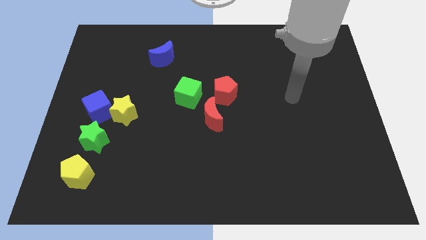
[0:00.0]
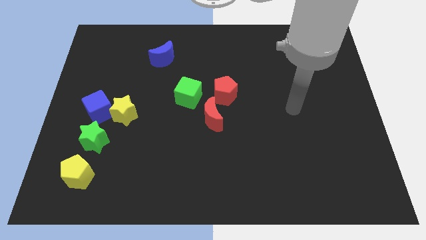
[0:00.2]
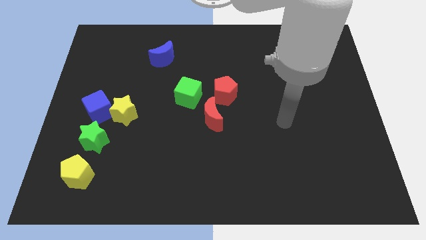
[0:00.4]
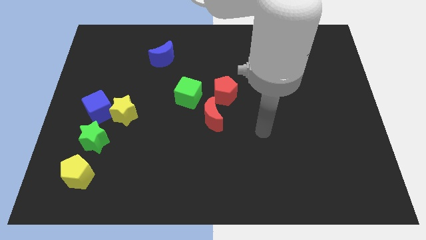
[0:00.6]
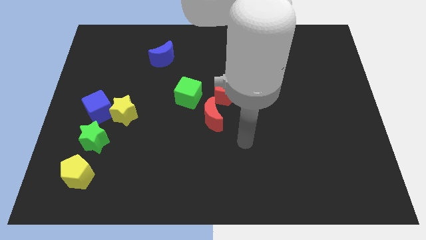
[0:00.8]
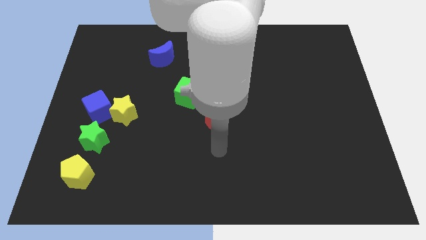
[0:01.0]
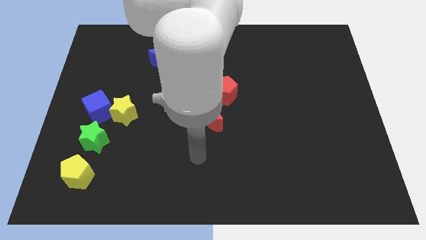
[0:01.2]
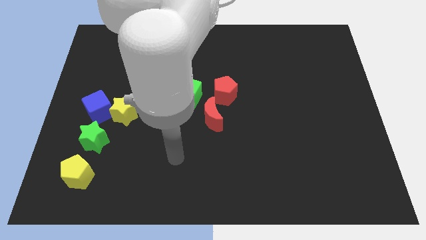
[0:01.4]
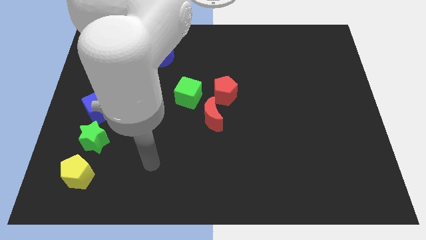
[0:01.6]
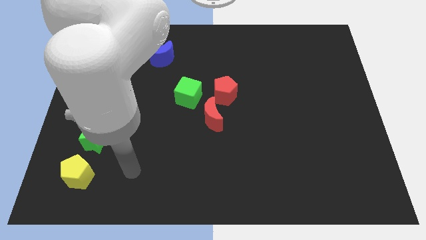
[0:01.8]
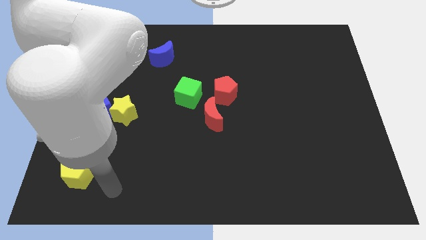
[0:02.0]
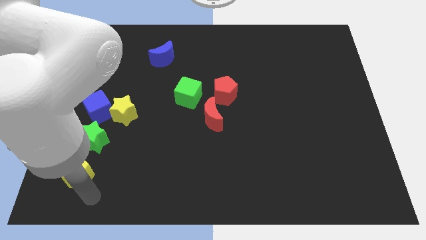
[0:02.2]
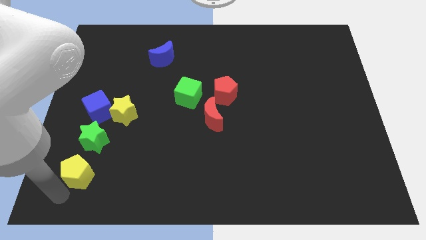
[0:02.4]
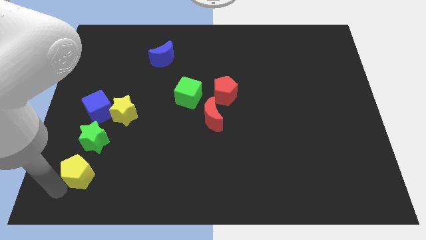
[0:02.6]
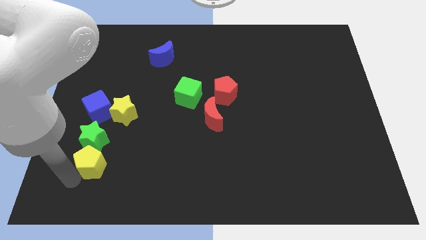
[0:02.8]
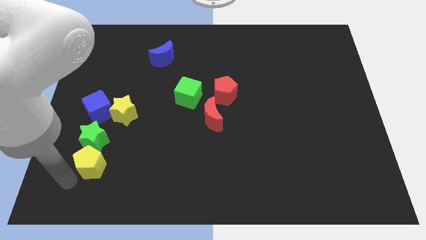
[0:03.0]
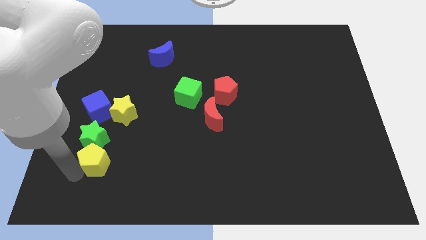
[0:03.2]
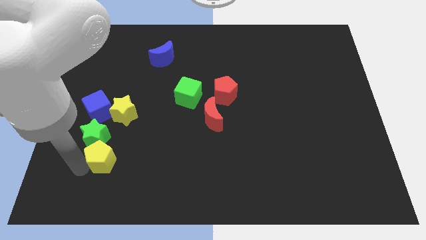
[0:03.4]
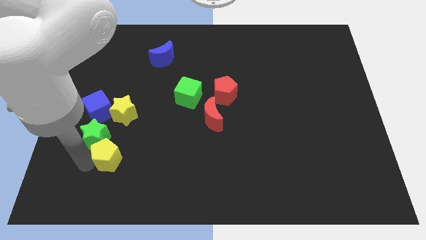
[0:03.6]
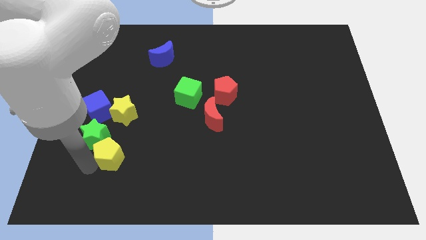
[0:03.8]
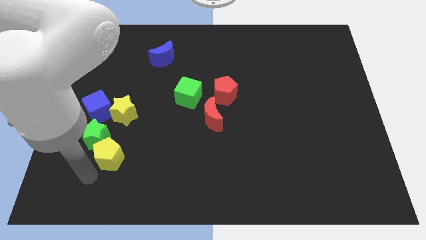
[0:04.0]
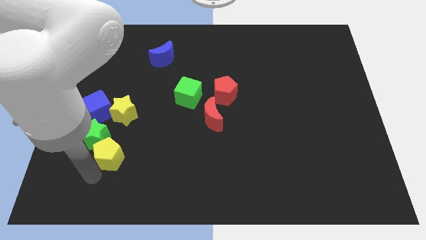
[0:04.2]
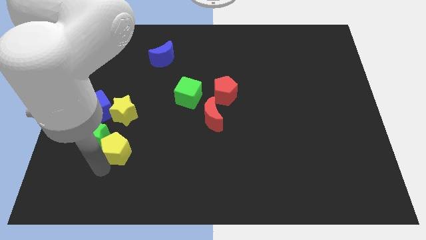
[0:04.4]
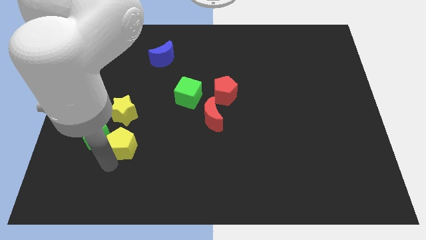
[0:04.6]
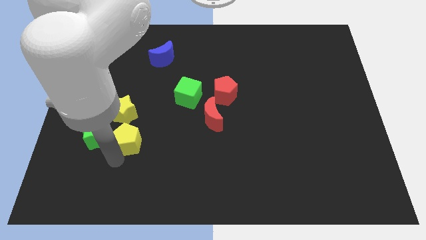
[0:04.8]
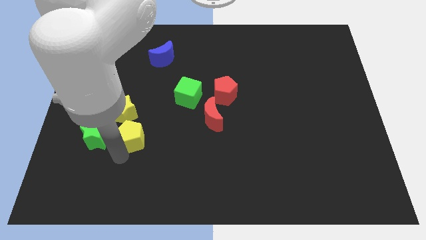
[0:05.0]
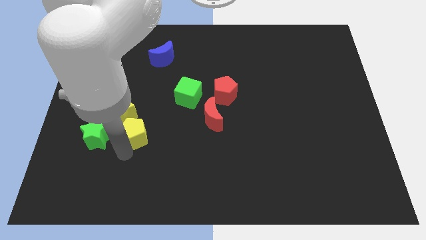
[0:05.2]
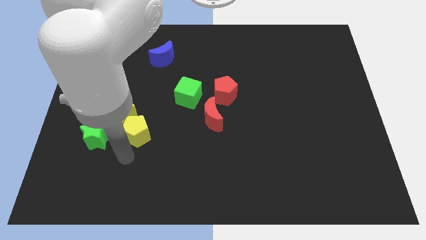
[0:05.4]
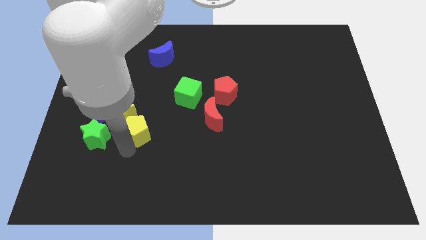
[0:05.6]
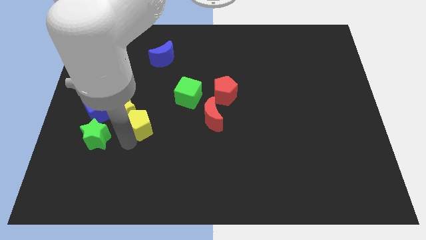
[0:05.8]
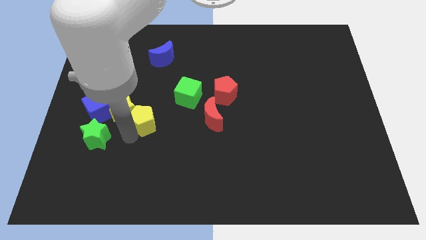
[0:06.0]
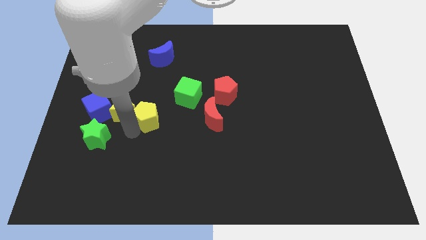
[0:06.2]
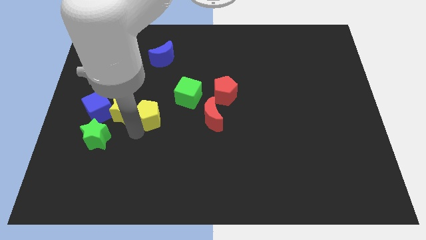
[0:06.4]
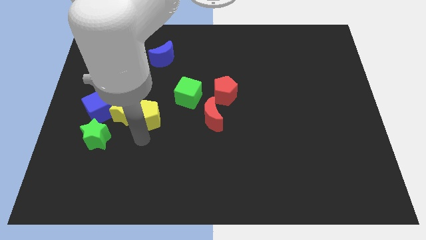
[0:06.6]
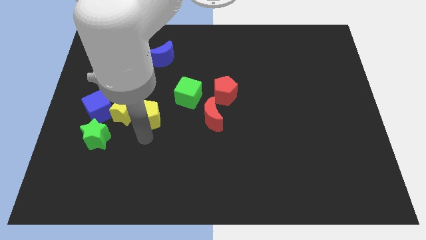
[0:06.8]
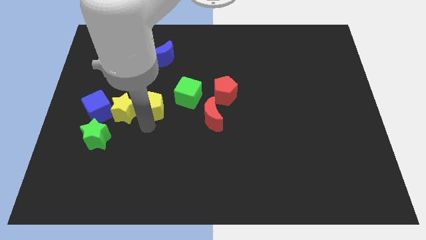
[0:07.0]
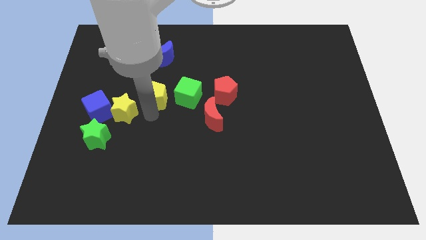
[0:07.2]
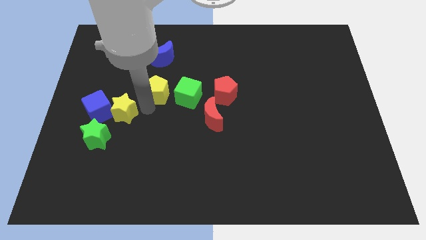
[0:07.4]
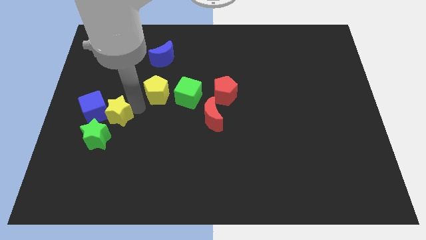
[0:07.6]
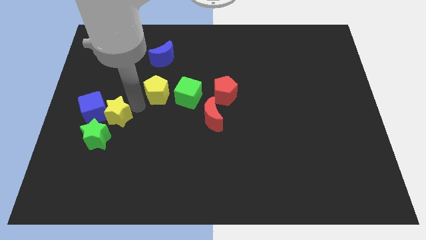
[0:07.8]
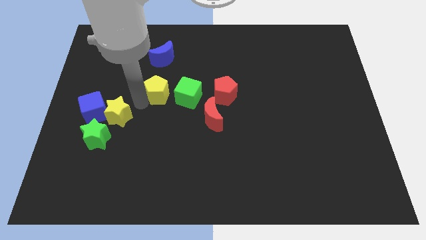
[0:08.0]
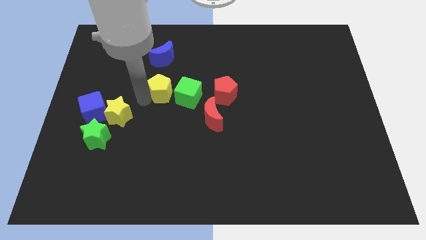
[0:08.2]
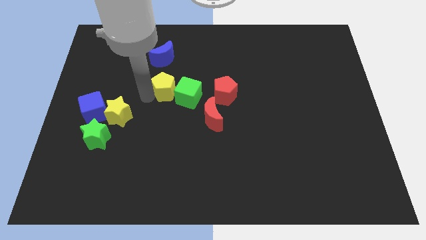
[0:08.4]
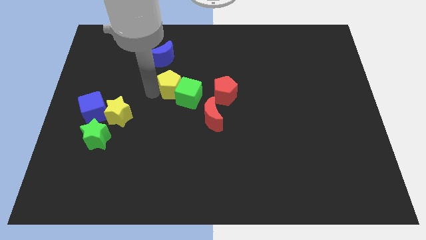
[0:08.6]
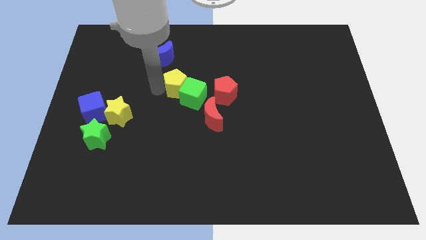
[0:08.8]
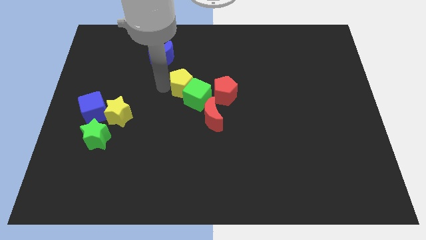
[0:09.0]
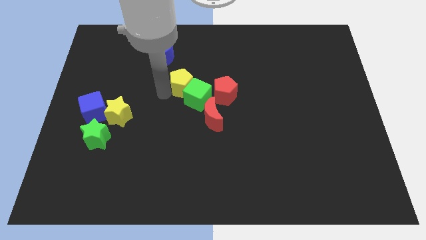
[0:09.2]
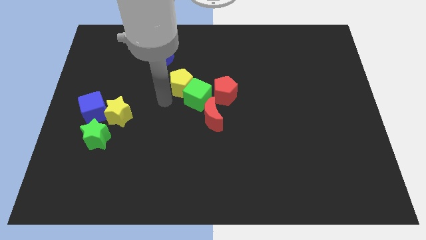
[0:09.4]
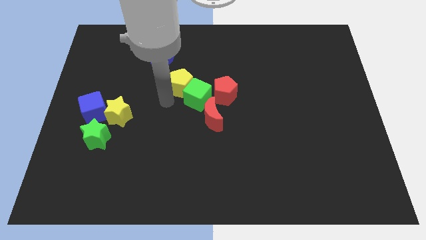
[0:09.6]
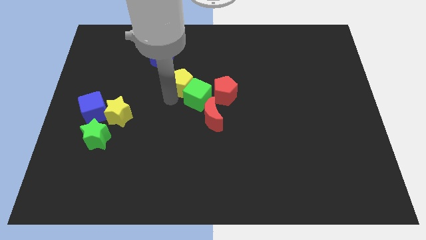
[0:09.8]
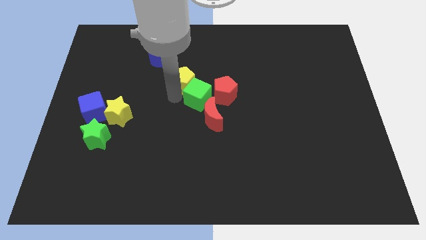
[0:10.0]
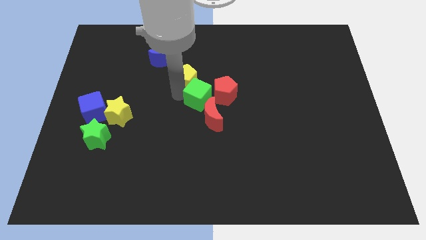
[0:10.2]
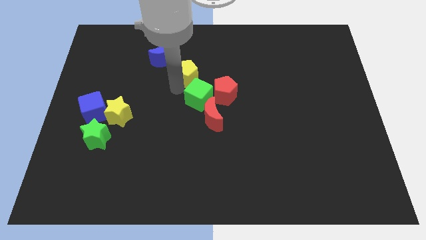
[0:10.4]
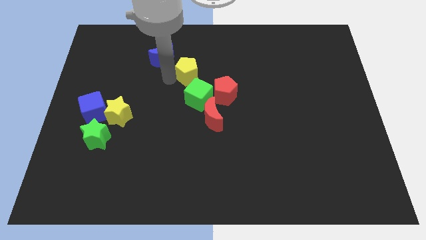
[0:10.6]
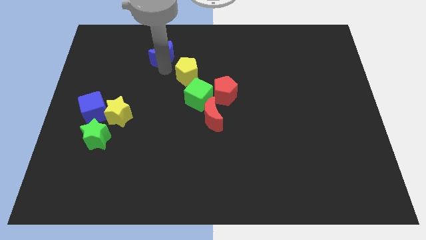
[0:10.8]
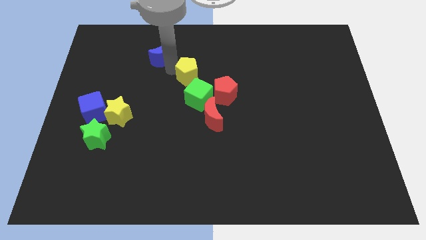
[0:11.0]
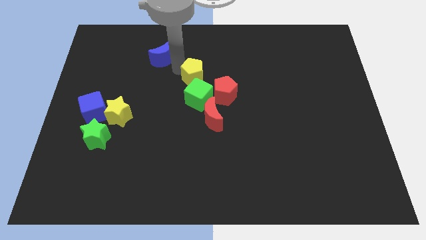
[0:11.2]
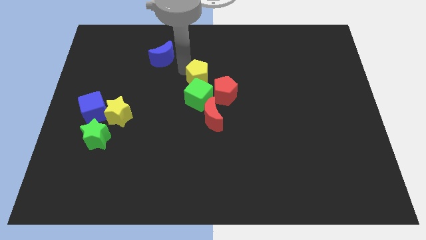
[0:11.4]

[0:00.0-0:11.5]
slide the yellow pentagon to the top right of the green cube

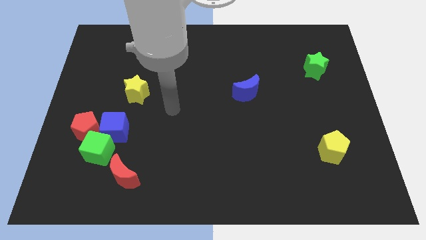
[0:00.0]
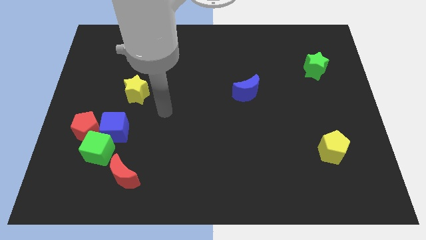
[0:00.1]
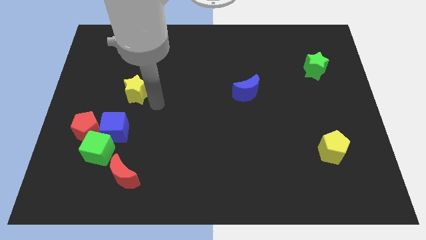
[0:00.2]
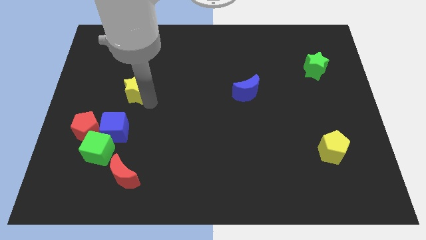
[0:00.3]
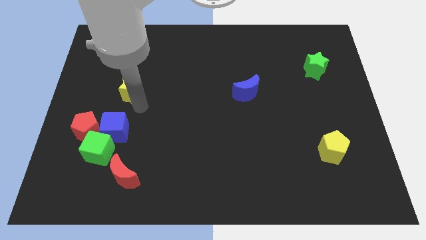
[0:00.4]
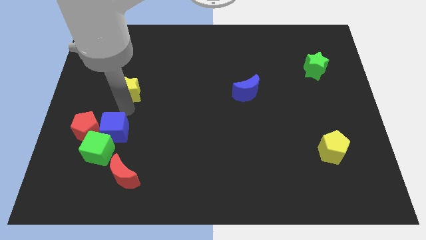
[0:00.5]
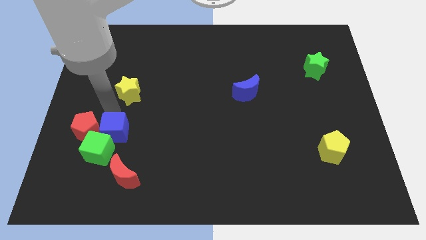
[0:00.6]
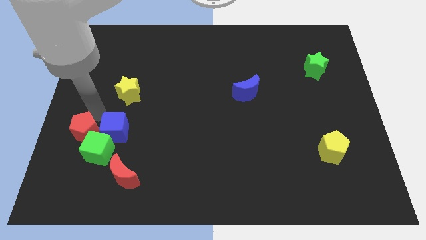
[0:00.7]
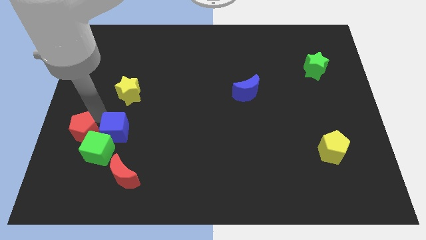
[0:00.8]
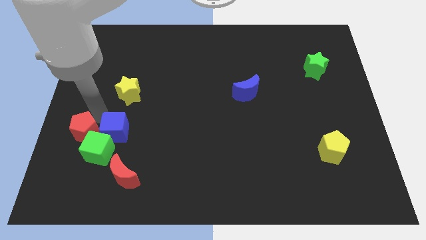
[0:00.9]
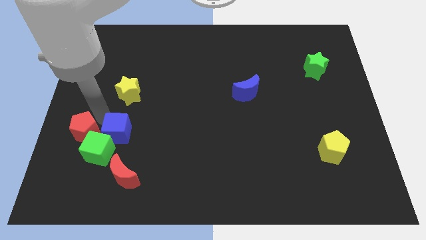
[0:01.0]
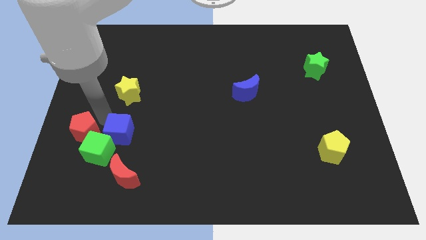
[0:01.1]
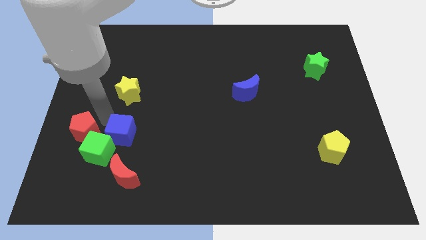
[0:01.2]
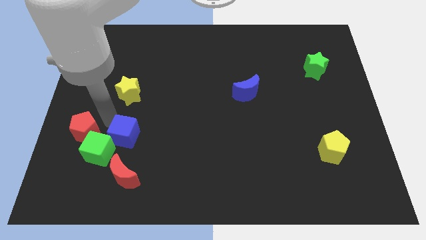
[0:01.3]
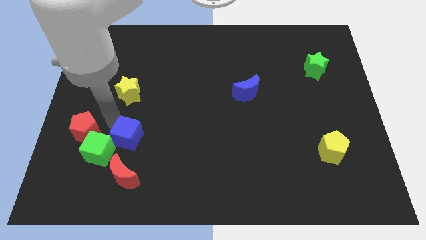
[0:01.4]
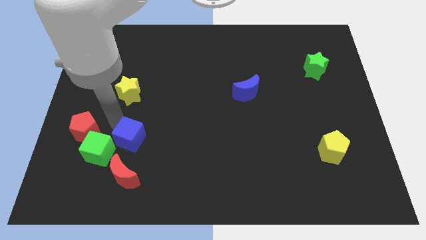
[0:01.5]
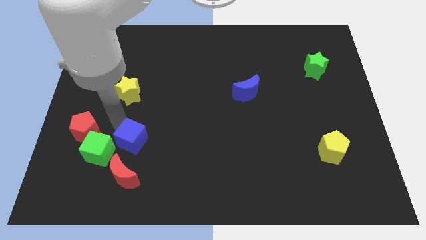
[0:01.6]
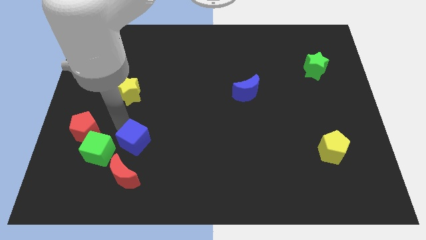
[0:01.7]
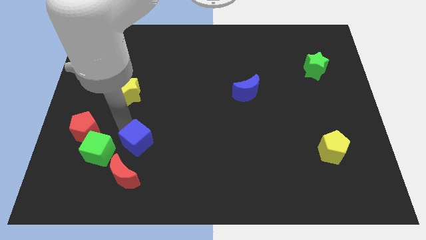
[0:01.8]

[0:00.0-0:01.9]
move the blue cube to the top right side of the red moon
